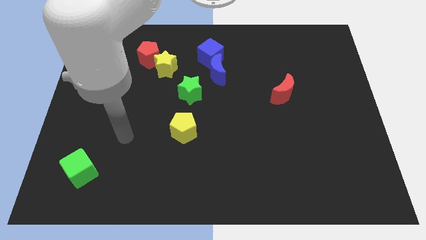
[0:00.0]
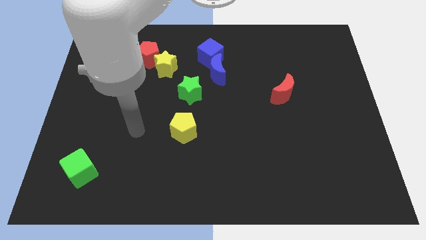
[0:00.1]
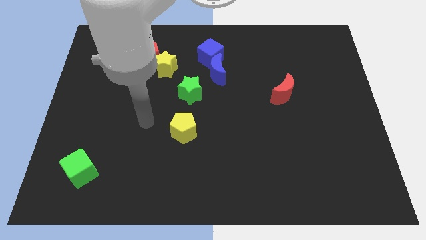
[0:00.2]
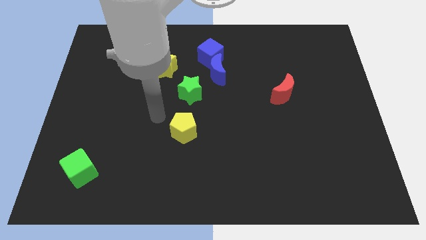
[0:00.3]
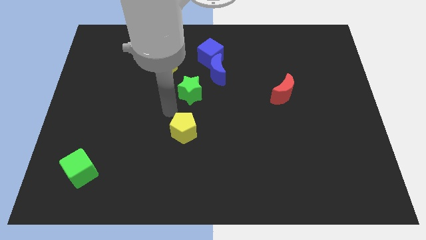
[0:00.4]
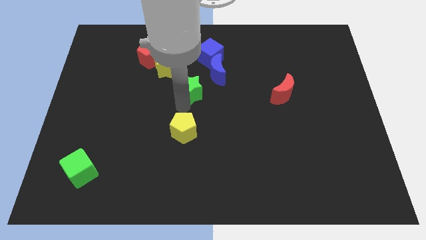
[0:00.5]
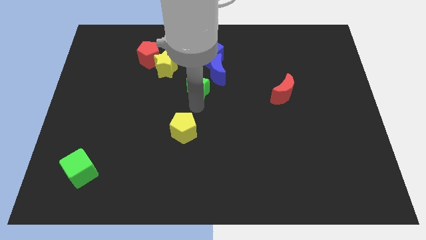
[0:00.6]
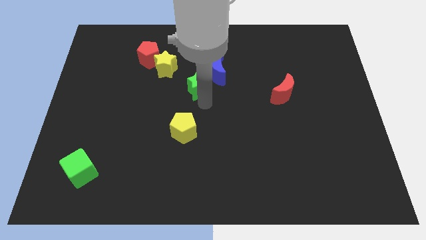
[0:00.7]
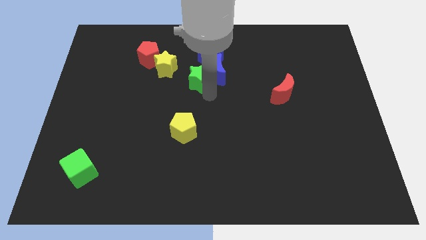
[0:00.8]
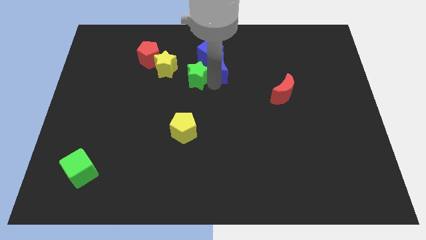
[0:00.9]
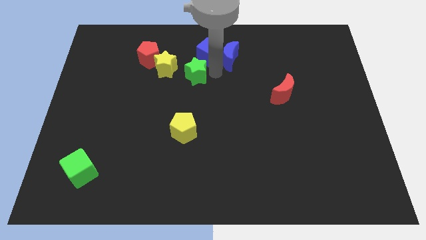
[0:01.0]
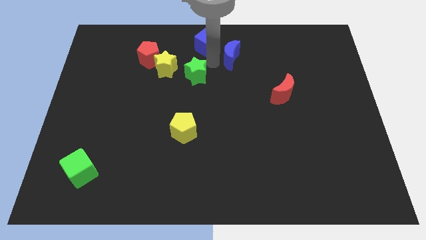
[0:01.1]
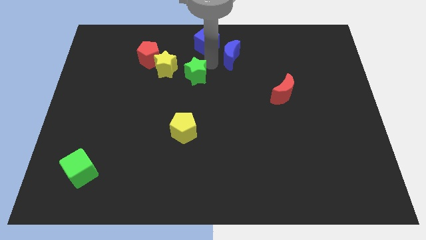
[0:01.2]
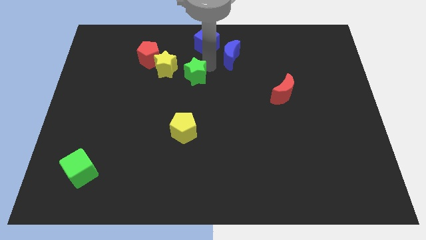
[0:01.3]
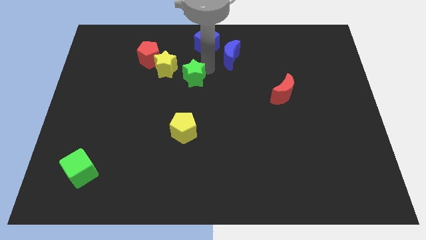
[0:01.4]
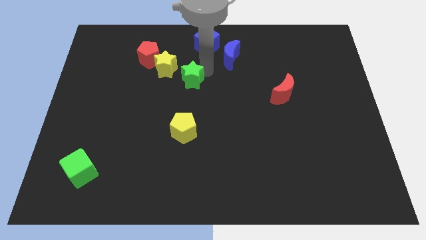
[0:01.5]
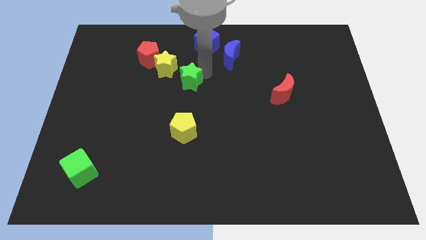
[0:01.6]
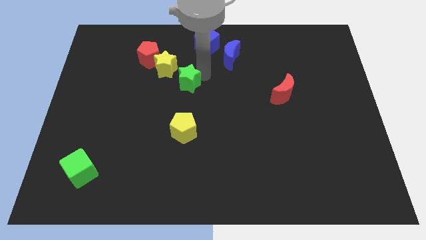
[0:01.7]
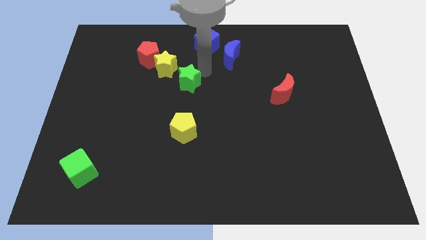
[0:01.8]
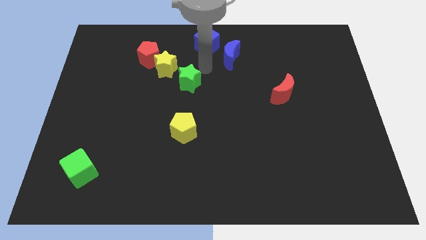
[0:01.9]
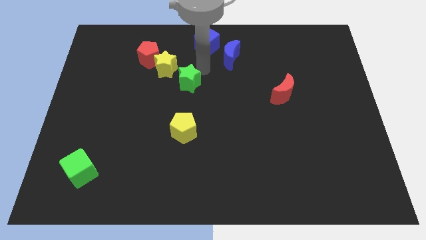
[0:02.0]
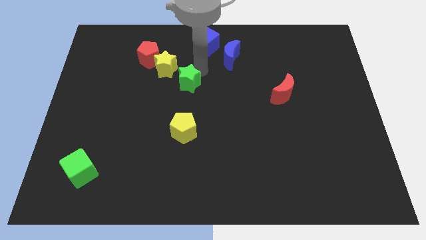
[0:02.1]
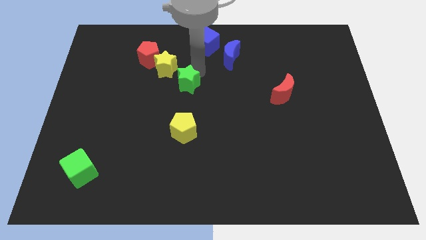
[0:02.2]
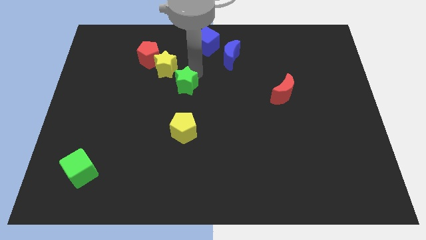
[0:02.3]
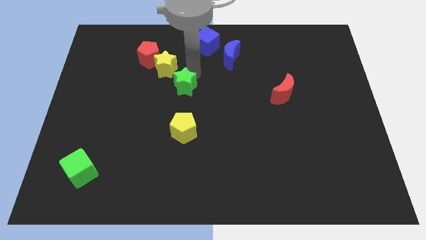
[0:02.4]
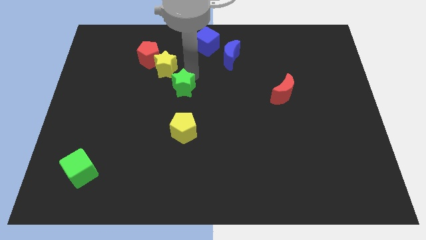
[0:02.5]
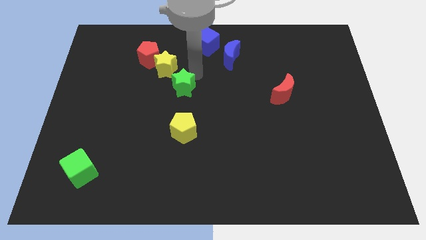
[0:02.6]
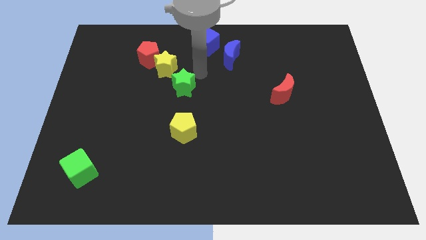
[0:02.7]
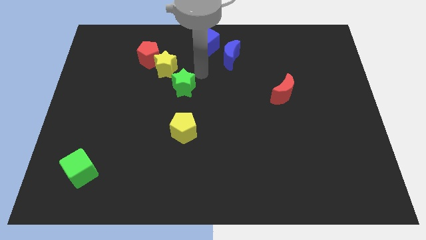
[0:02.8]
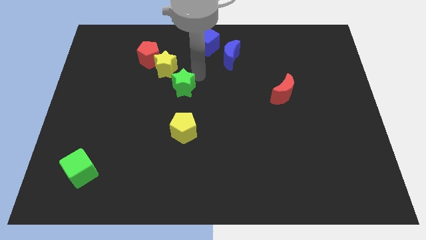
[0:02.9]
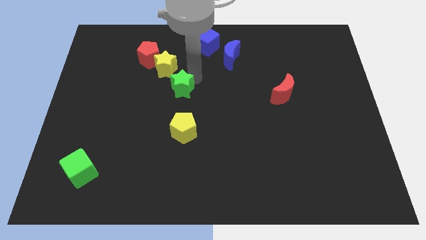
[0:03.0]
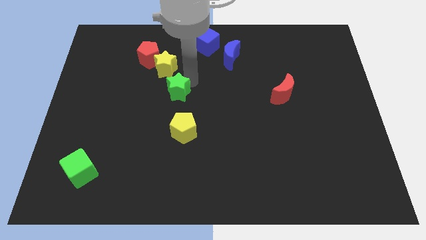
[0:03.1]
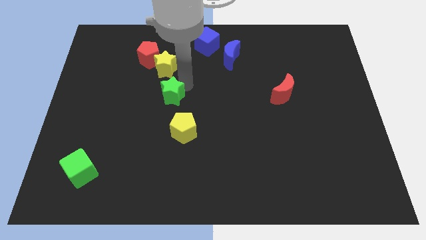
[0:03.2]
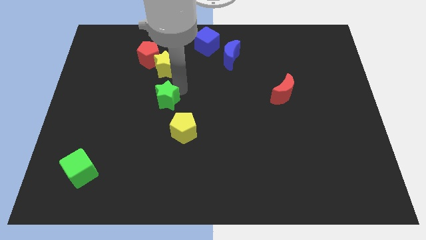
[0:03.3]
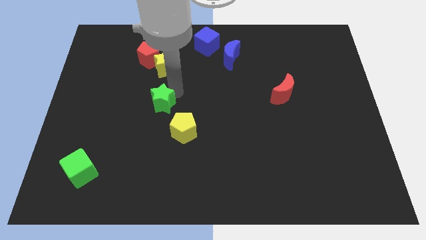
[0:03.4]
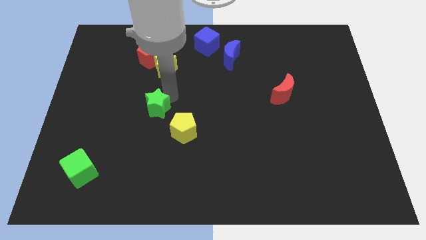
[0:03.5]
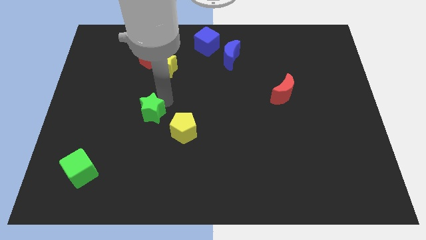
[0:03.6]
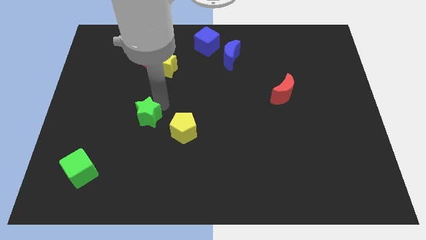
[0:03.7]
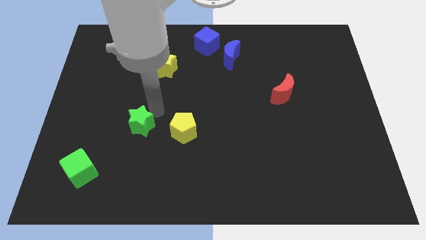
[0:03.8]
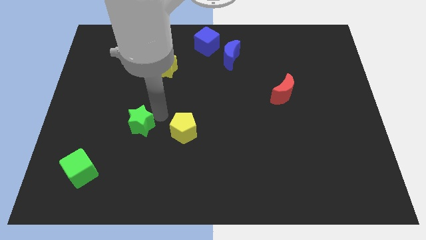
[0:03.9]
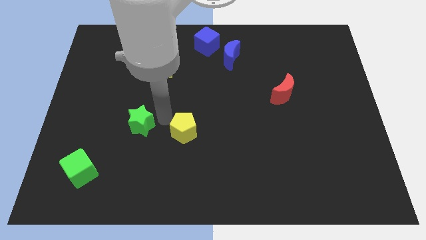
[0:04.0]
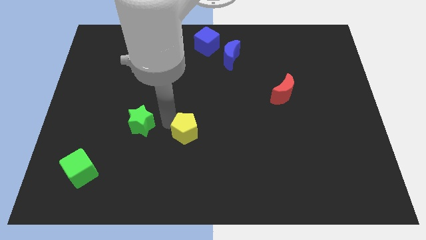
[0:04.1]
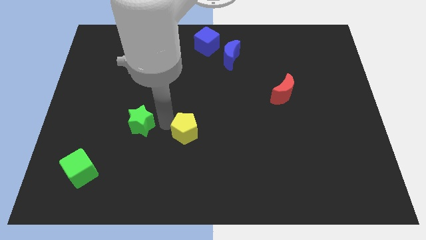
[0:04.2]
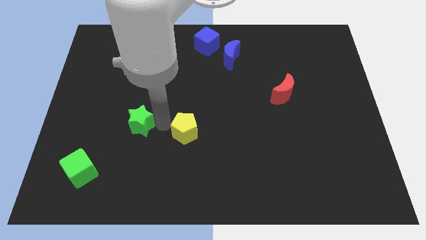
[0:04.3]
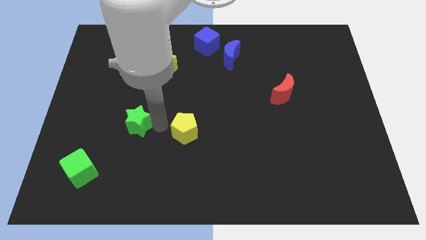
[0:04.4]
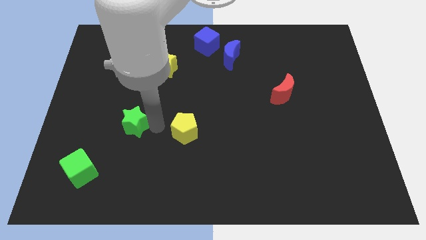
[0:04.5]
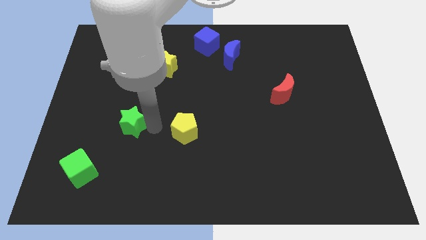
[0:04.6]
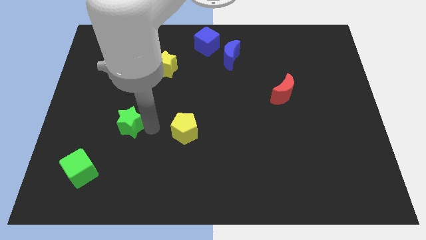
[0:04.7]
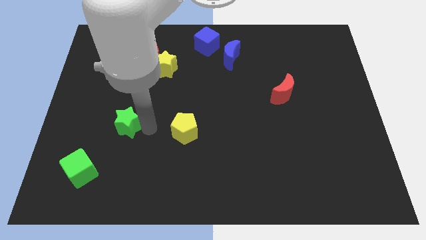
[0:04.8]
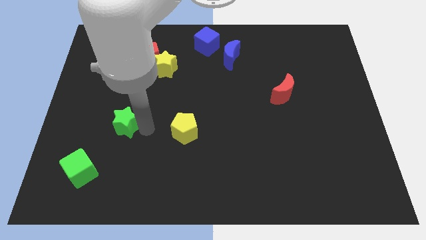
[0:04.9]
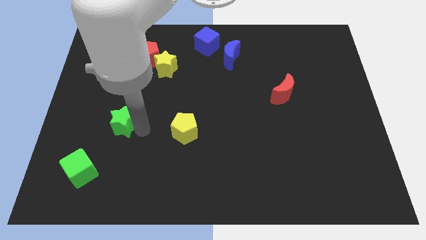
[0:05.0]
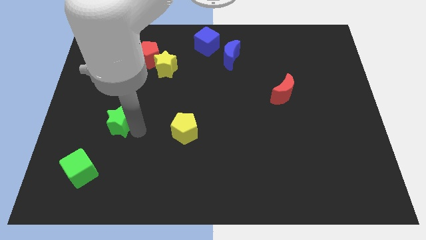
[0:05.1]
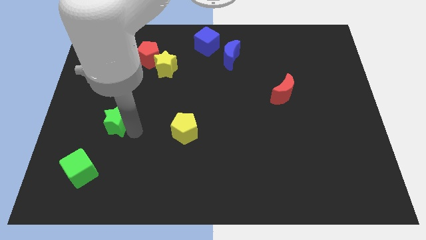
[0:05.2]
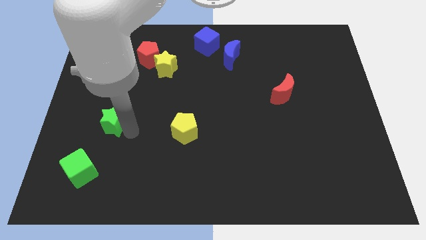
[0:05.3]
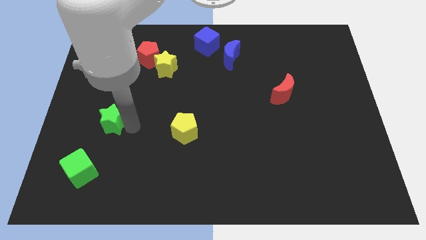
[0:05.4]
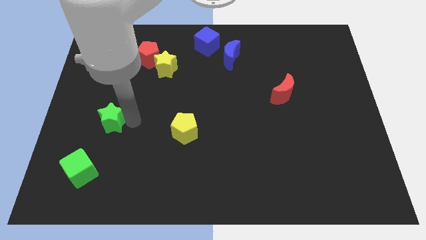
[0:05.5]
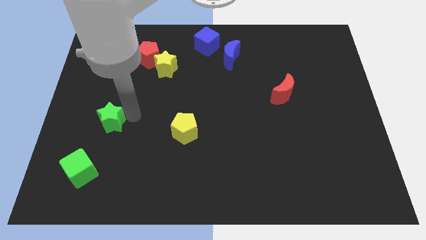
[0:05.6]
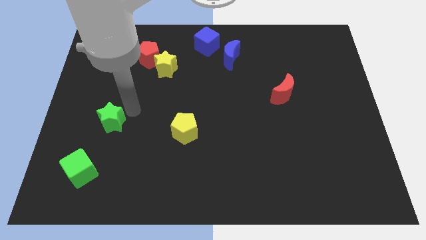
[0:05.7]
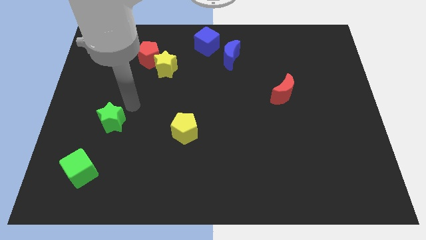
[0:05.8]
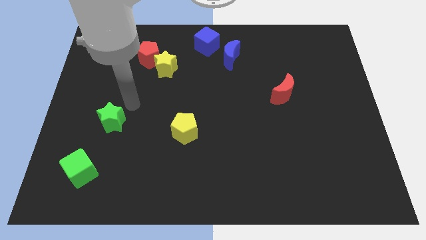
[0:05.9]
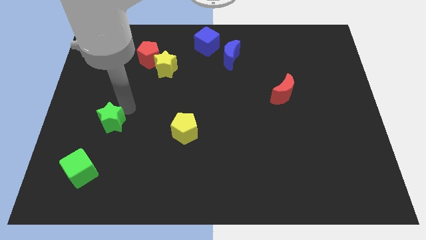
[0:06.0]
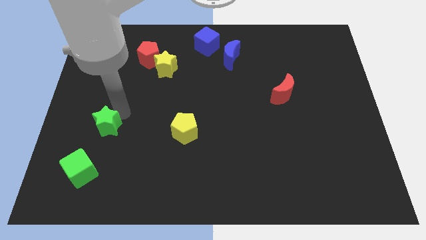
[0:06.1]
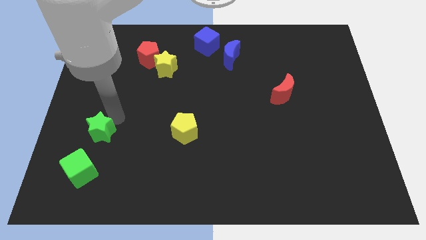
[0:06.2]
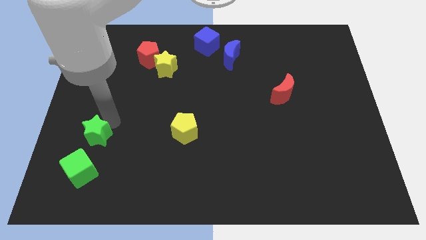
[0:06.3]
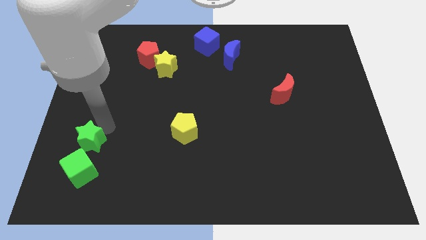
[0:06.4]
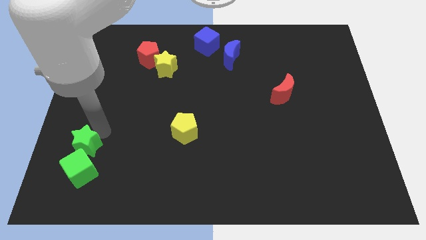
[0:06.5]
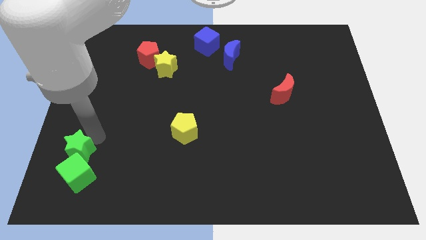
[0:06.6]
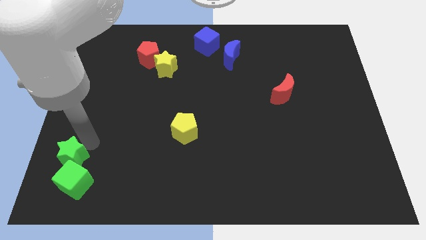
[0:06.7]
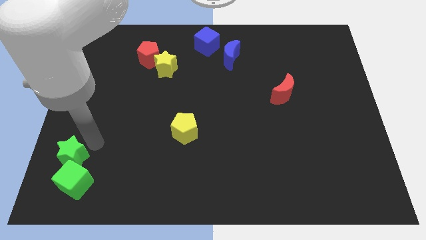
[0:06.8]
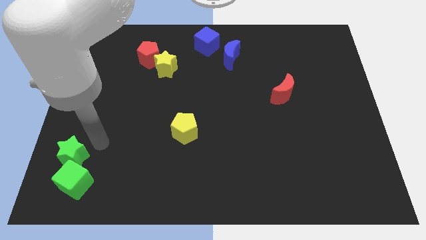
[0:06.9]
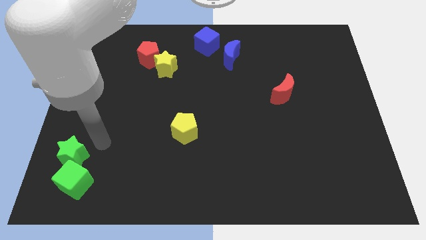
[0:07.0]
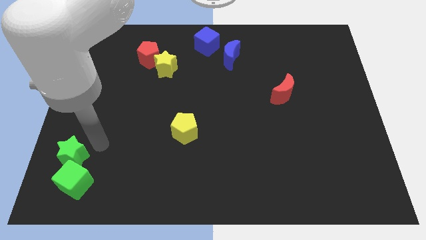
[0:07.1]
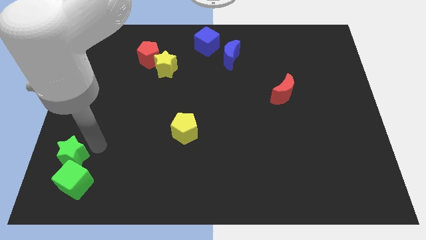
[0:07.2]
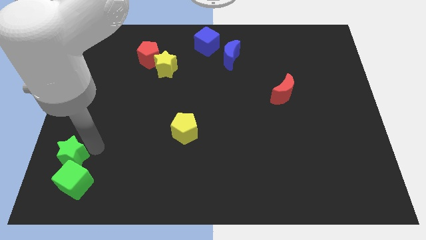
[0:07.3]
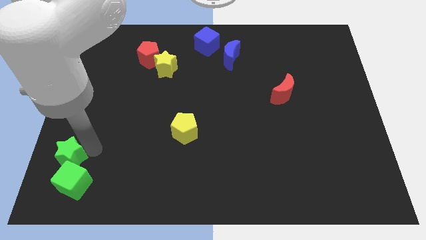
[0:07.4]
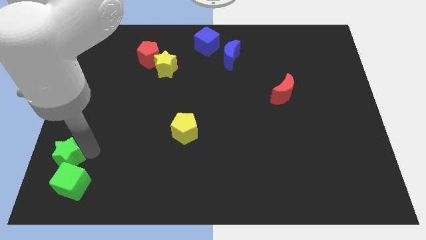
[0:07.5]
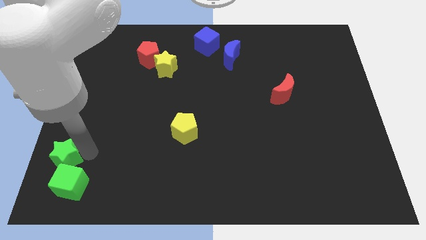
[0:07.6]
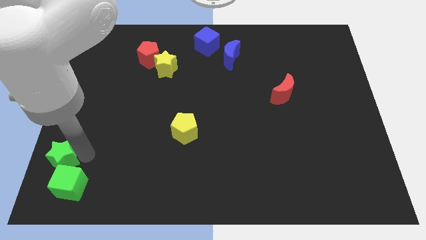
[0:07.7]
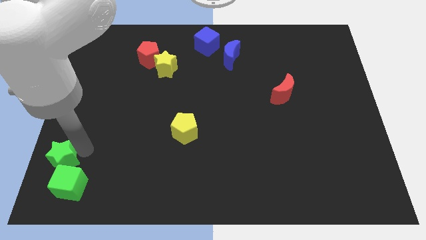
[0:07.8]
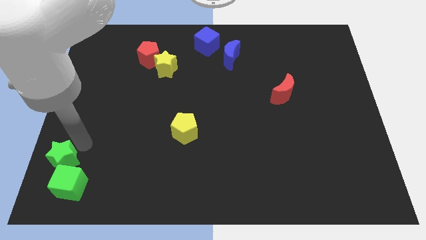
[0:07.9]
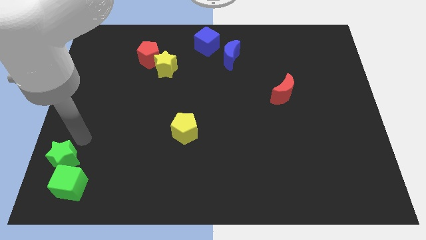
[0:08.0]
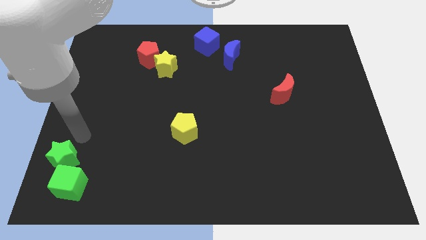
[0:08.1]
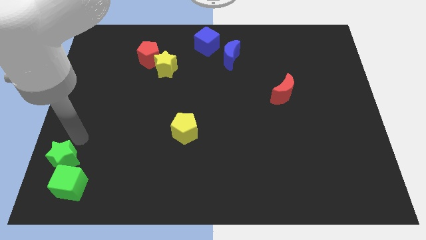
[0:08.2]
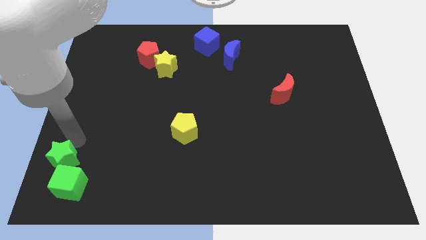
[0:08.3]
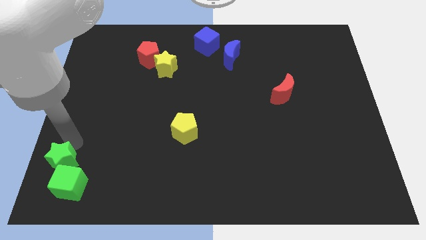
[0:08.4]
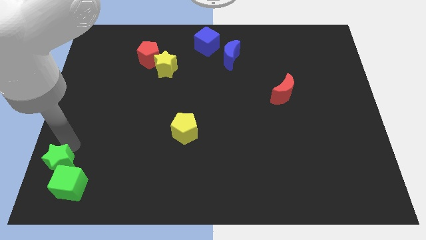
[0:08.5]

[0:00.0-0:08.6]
push the green star to the bottom left of the board
